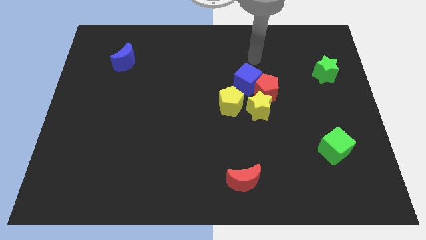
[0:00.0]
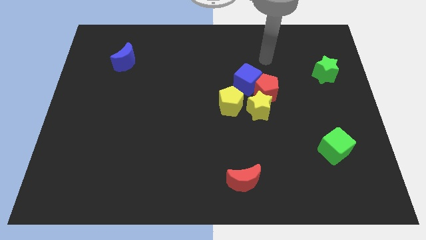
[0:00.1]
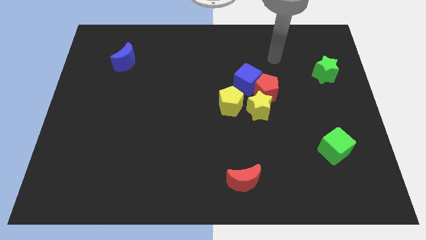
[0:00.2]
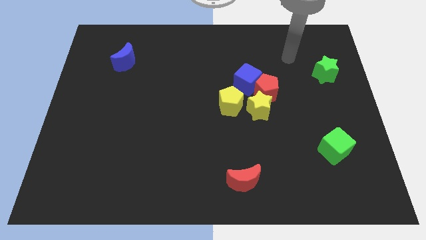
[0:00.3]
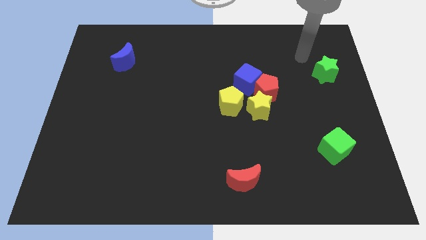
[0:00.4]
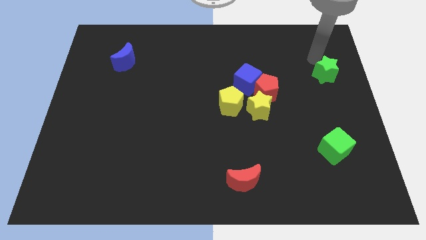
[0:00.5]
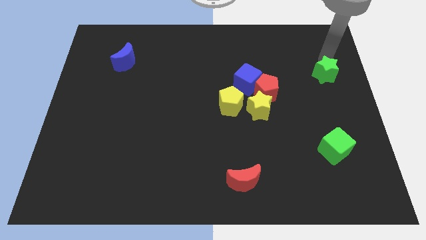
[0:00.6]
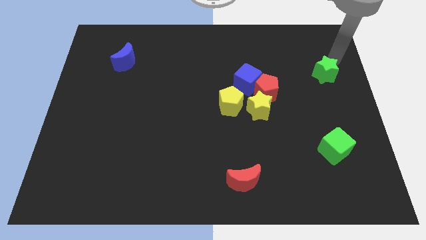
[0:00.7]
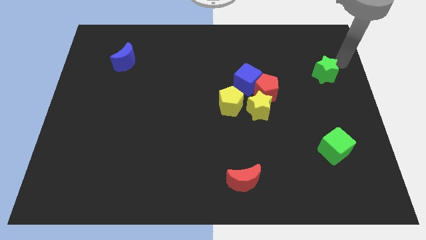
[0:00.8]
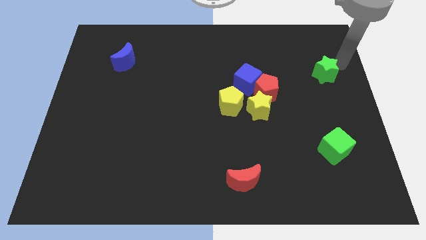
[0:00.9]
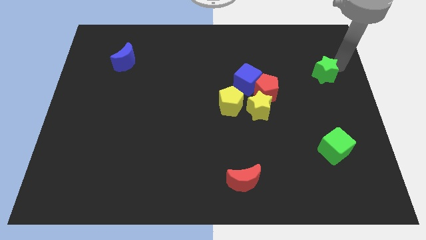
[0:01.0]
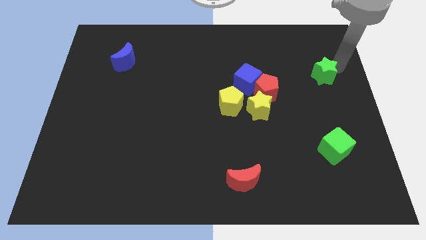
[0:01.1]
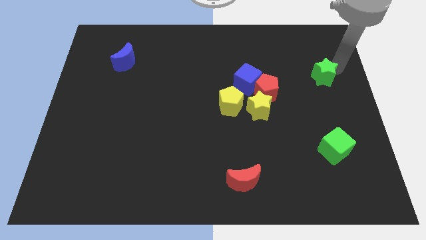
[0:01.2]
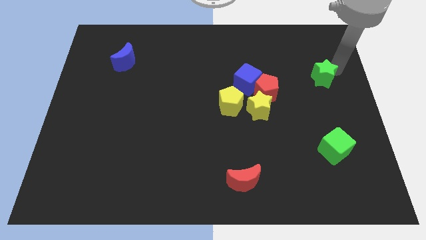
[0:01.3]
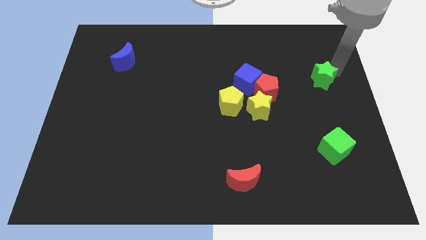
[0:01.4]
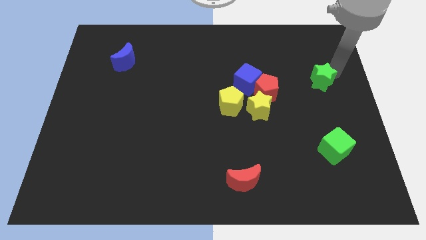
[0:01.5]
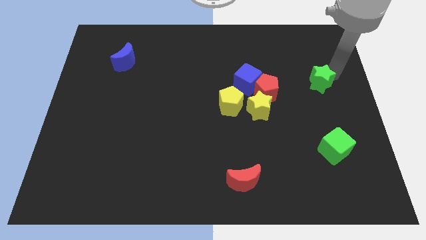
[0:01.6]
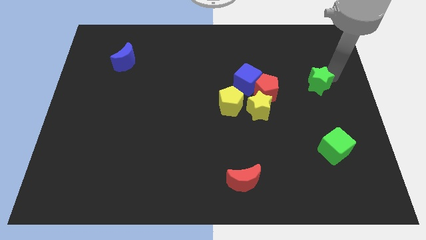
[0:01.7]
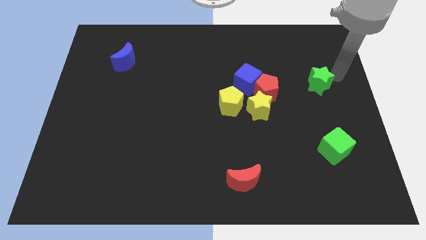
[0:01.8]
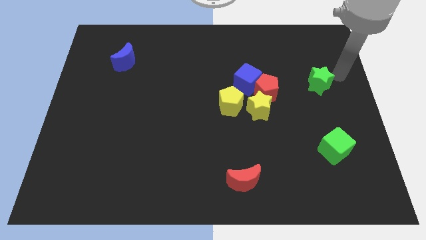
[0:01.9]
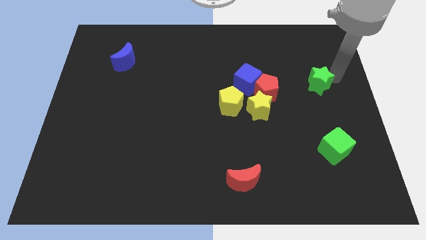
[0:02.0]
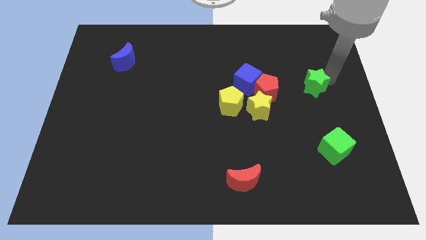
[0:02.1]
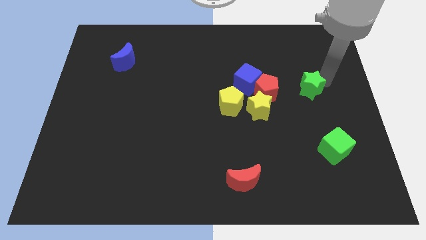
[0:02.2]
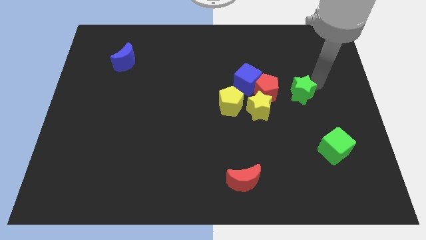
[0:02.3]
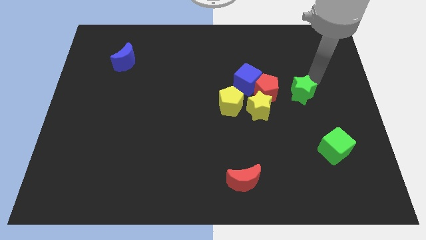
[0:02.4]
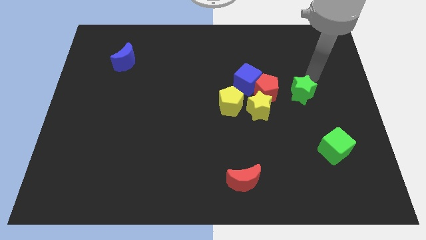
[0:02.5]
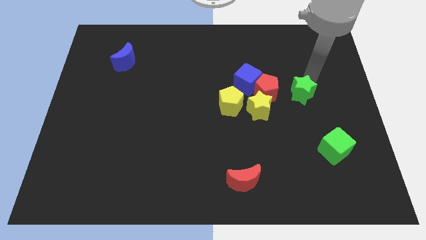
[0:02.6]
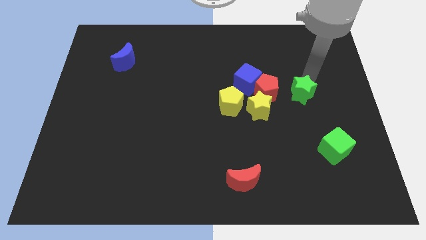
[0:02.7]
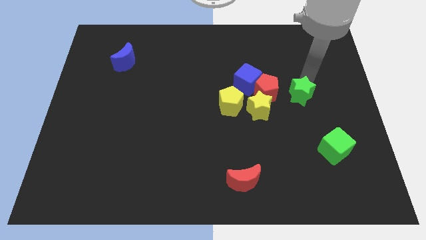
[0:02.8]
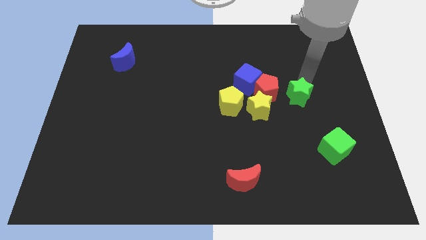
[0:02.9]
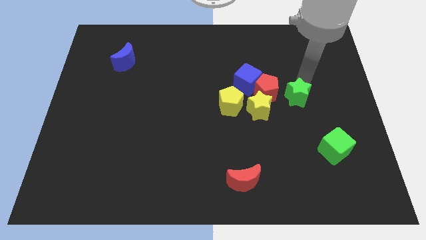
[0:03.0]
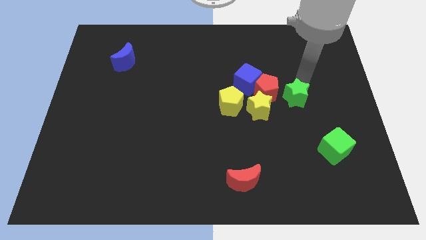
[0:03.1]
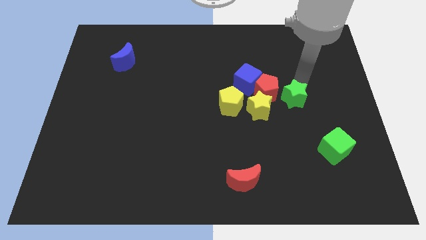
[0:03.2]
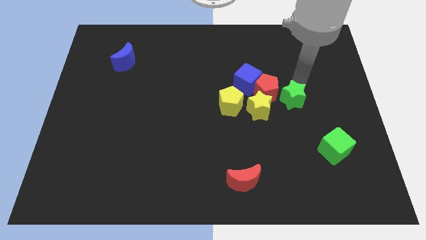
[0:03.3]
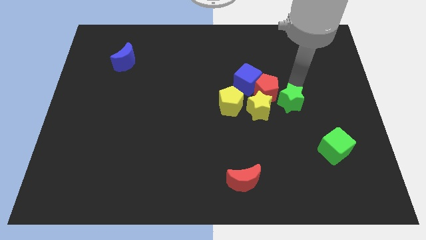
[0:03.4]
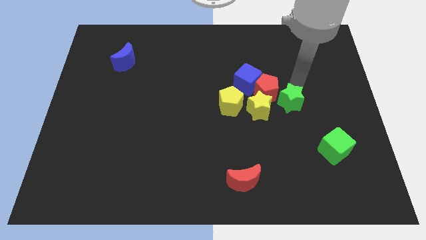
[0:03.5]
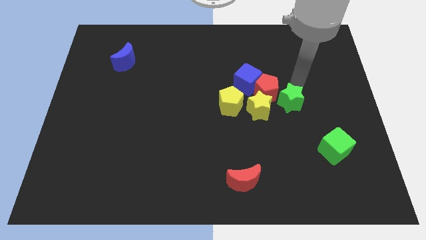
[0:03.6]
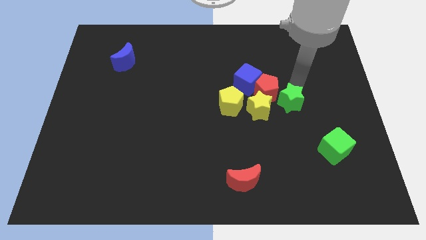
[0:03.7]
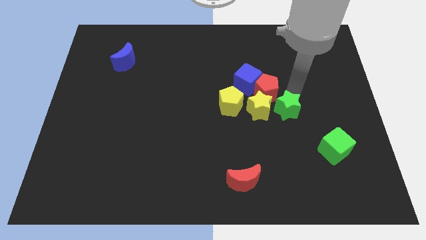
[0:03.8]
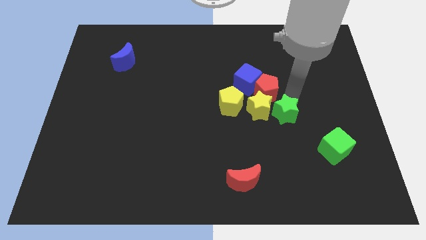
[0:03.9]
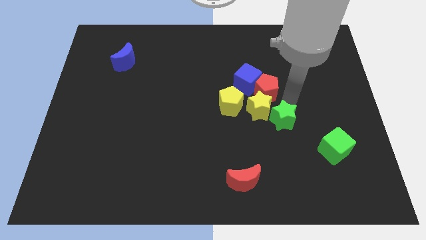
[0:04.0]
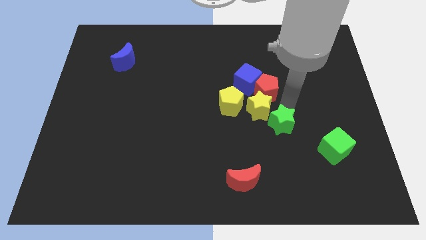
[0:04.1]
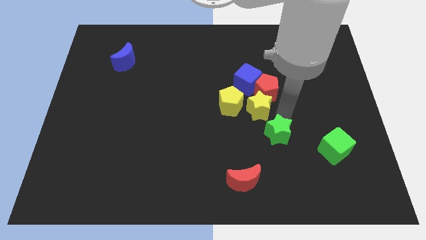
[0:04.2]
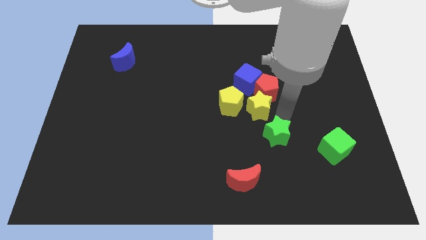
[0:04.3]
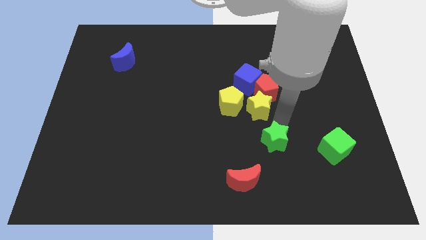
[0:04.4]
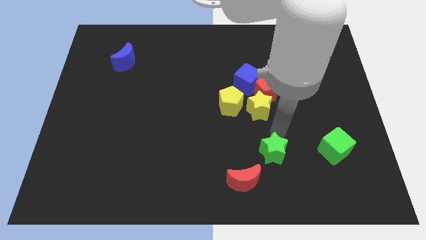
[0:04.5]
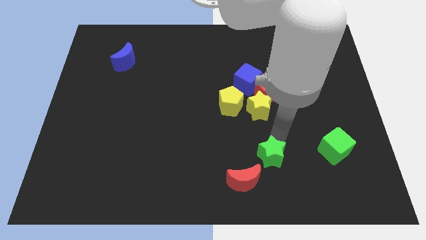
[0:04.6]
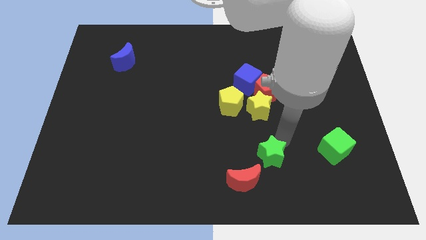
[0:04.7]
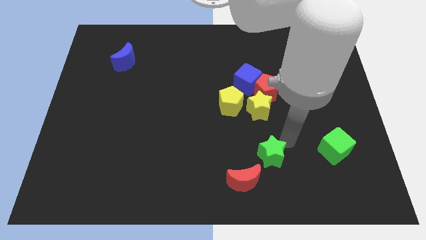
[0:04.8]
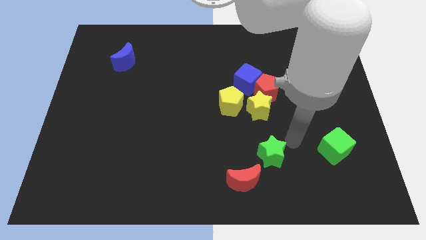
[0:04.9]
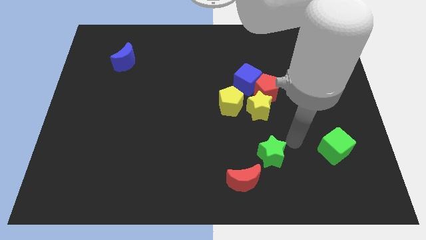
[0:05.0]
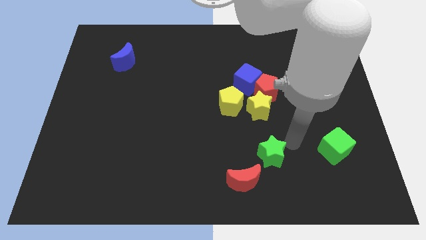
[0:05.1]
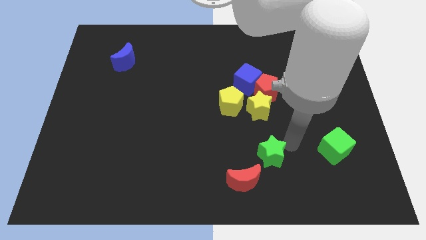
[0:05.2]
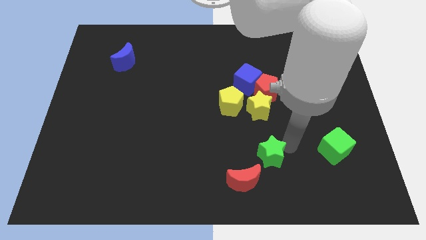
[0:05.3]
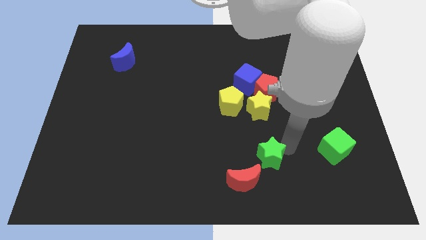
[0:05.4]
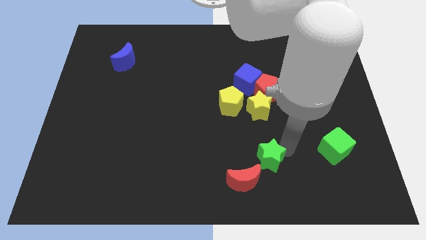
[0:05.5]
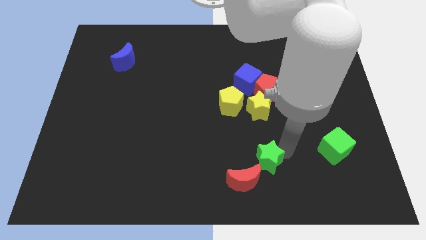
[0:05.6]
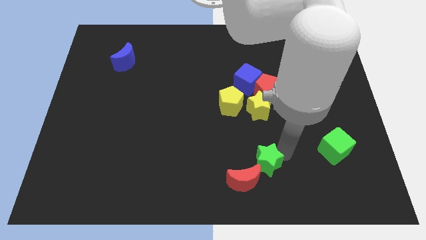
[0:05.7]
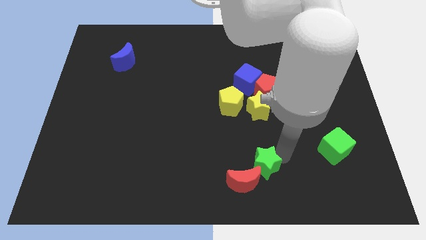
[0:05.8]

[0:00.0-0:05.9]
put the green star close to the red moon

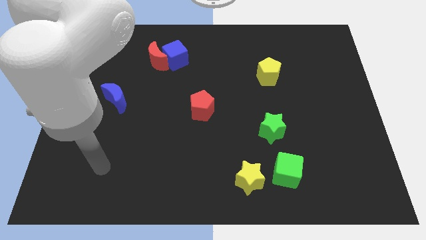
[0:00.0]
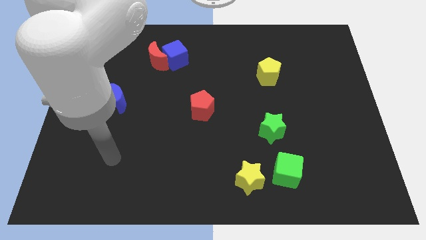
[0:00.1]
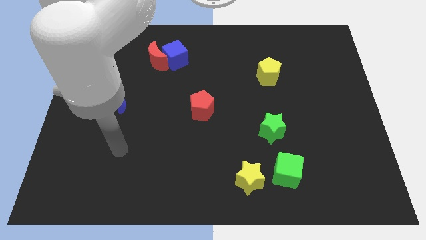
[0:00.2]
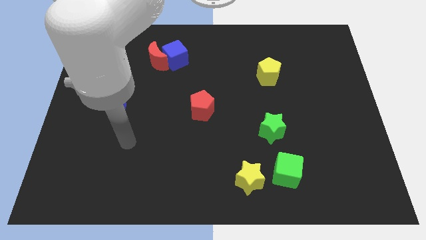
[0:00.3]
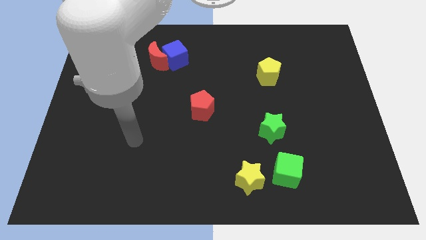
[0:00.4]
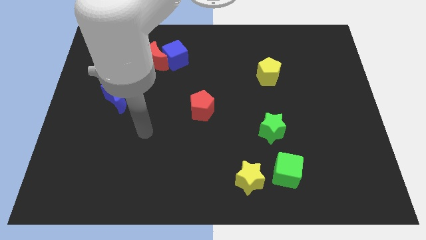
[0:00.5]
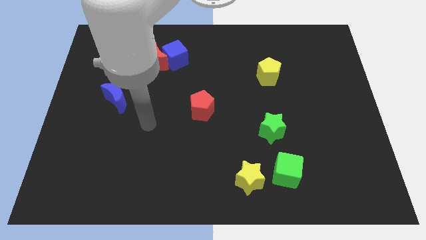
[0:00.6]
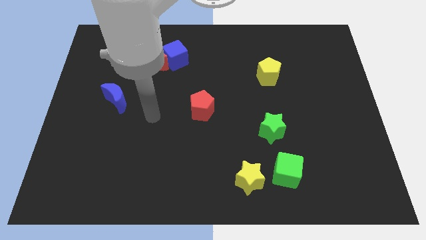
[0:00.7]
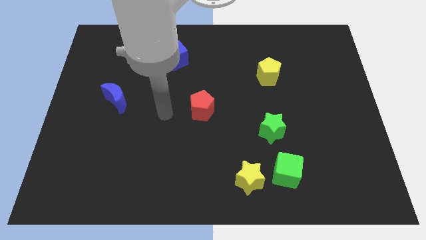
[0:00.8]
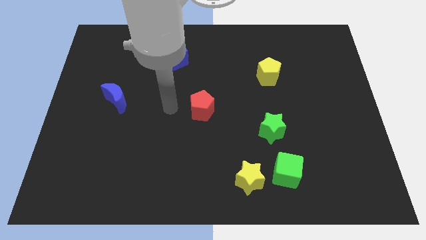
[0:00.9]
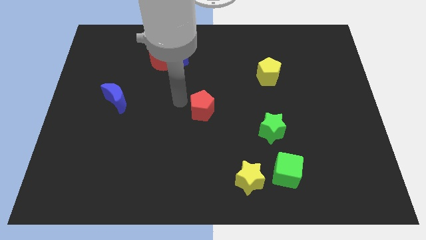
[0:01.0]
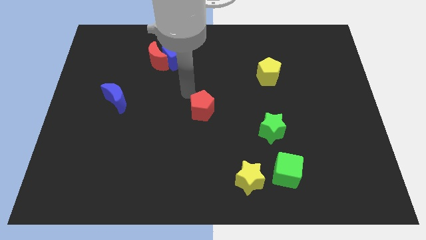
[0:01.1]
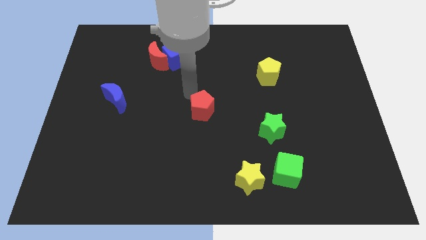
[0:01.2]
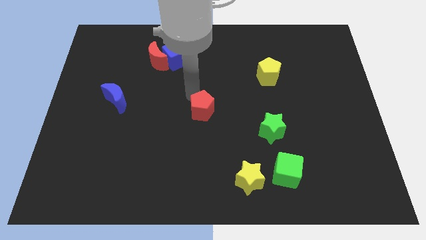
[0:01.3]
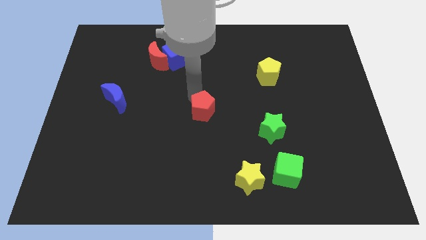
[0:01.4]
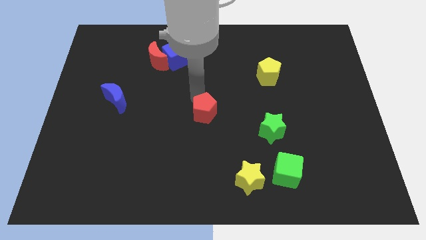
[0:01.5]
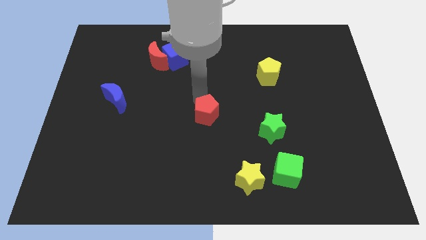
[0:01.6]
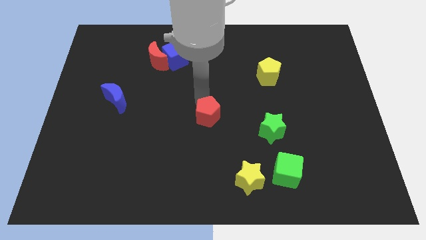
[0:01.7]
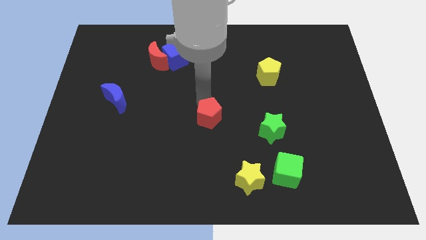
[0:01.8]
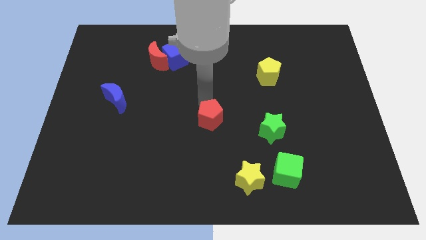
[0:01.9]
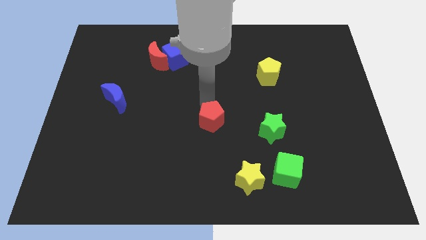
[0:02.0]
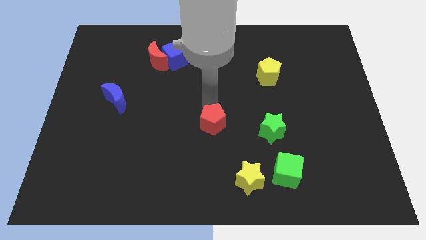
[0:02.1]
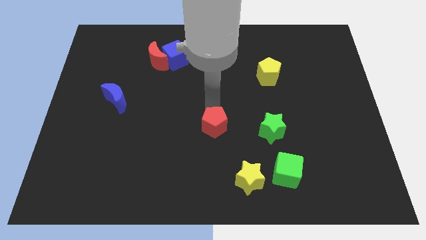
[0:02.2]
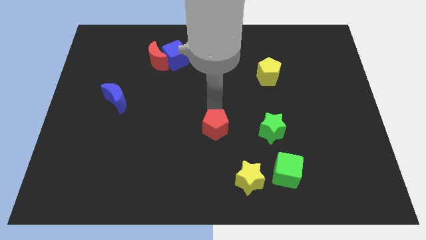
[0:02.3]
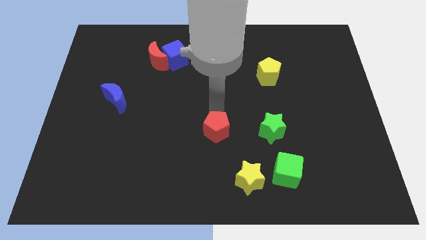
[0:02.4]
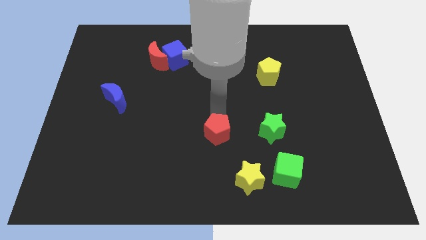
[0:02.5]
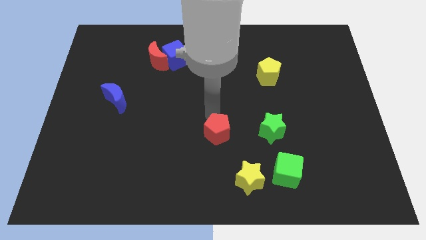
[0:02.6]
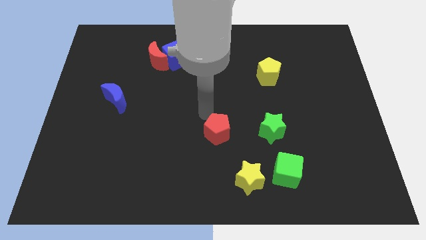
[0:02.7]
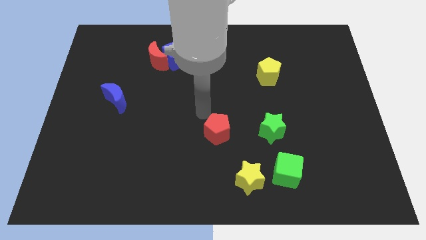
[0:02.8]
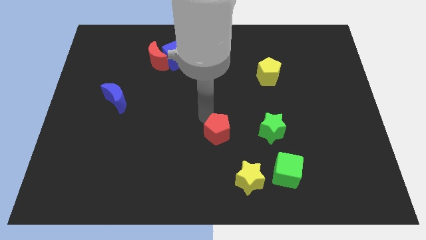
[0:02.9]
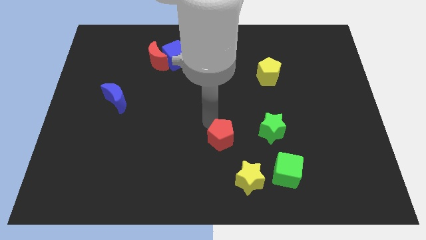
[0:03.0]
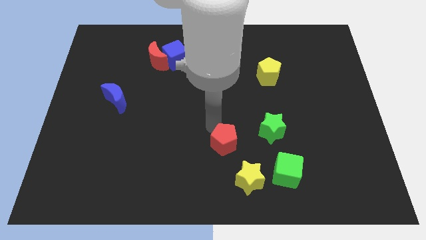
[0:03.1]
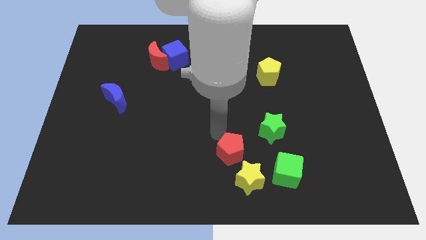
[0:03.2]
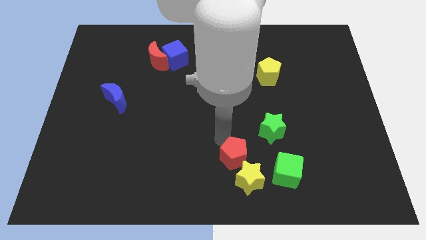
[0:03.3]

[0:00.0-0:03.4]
move the red pentagon close to the yellow star
